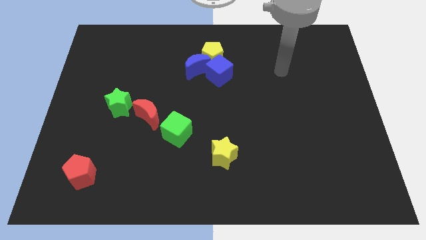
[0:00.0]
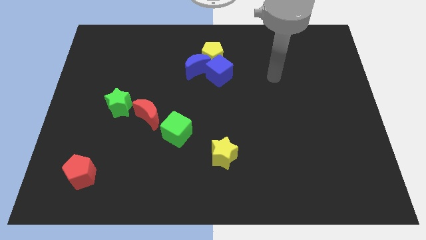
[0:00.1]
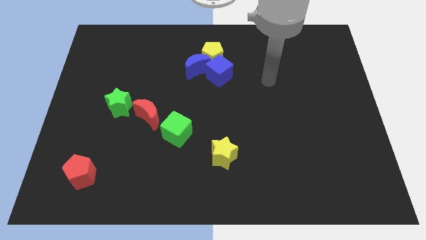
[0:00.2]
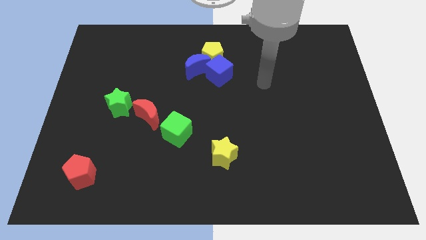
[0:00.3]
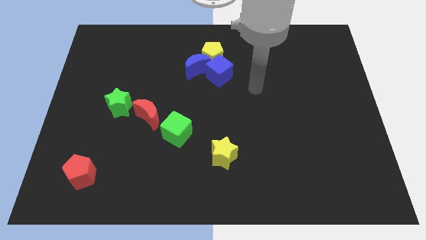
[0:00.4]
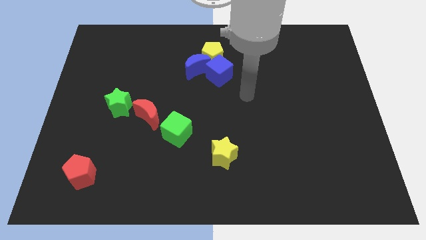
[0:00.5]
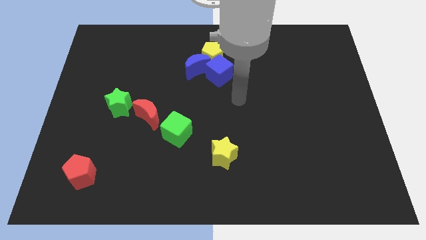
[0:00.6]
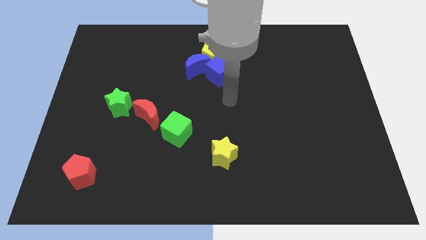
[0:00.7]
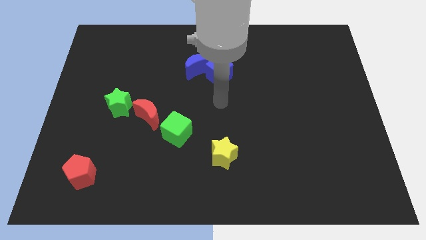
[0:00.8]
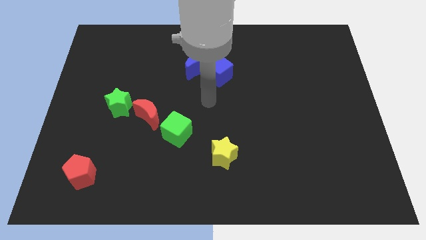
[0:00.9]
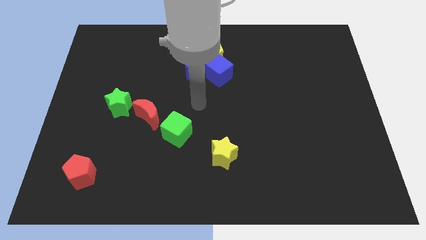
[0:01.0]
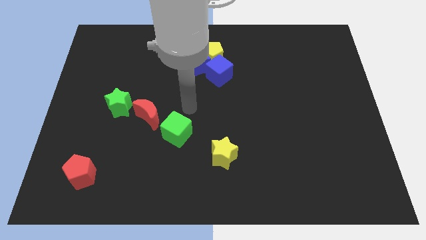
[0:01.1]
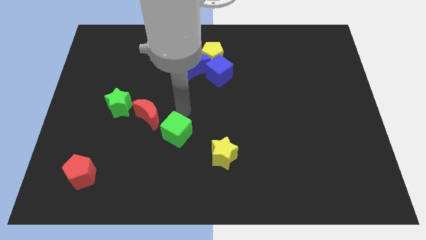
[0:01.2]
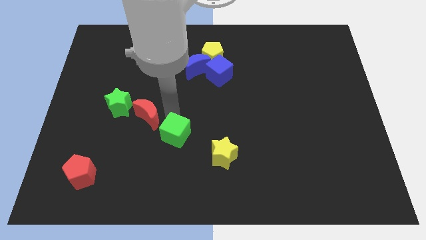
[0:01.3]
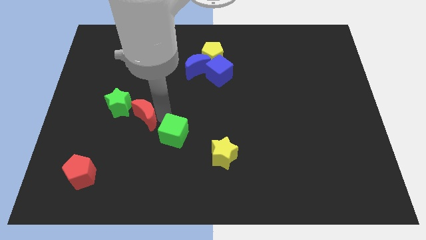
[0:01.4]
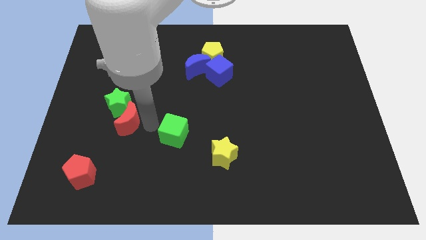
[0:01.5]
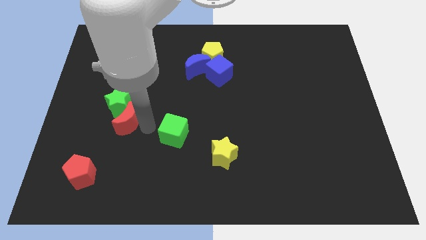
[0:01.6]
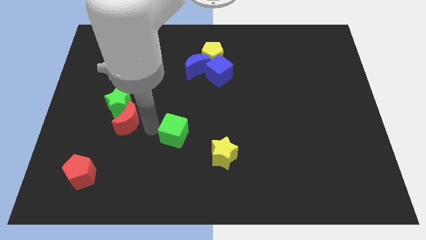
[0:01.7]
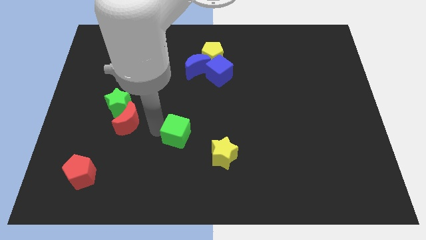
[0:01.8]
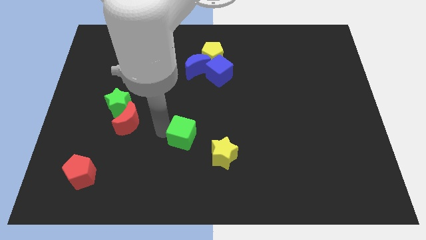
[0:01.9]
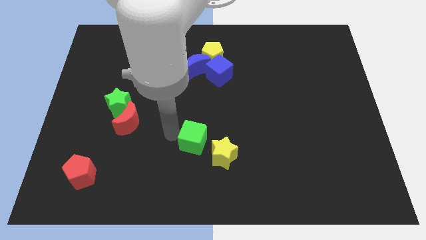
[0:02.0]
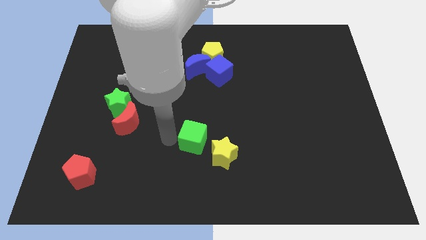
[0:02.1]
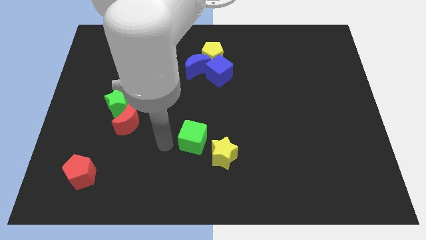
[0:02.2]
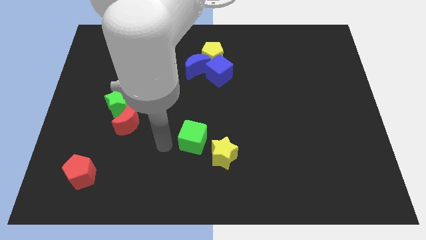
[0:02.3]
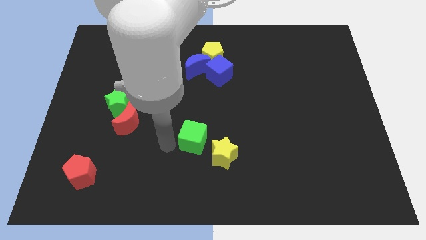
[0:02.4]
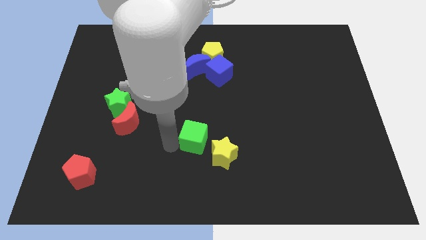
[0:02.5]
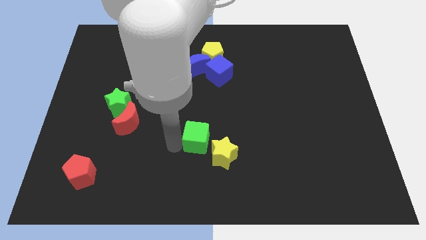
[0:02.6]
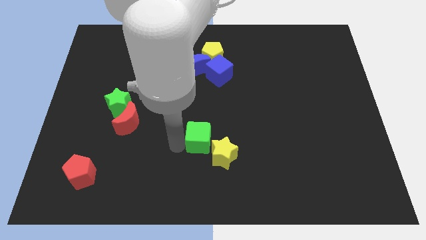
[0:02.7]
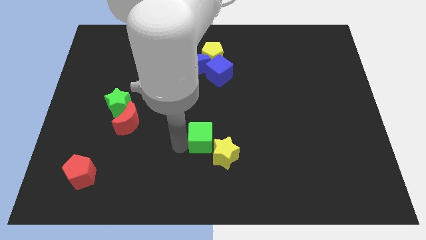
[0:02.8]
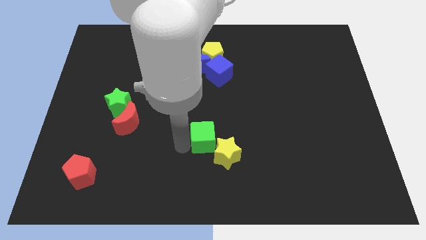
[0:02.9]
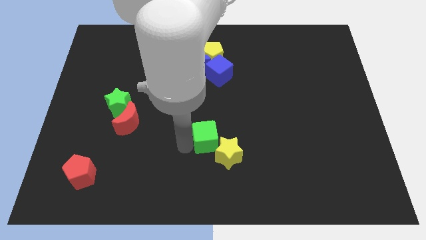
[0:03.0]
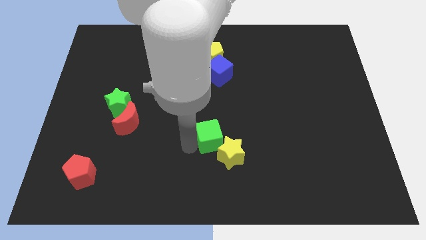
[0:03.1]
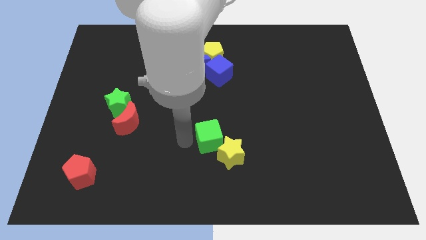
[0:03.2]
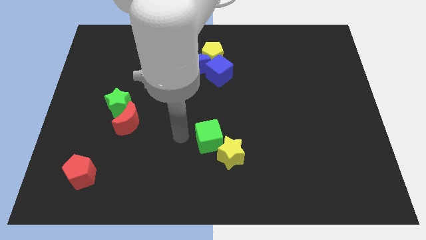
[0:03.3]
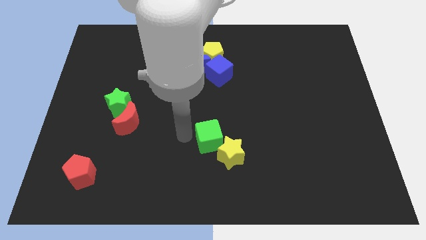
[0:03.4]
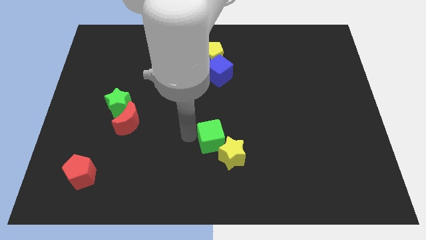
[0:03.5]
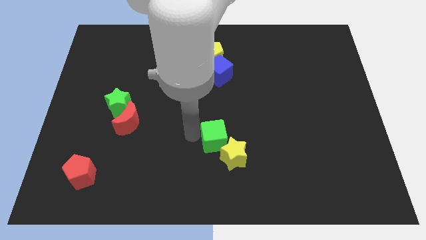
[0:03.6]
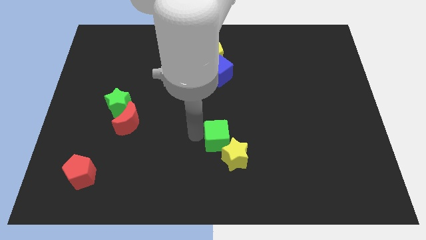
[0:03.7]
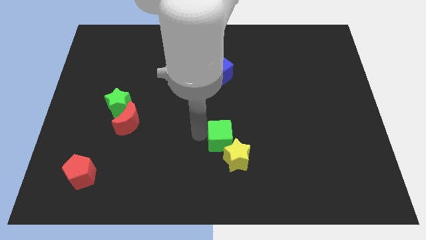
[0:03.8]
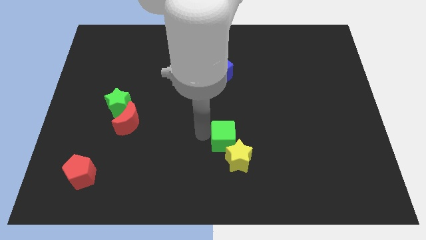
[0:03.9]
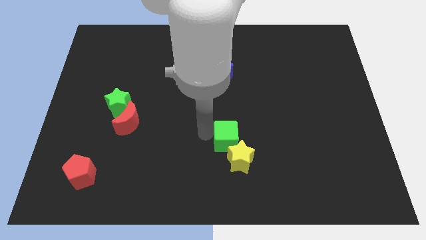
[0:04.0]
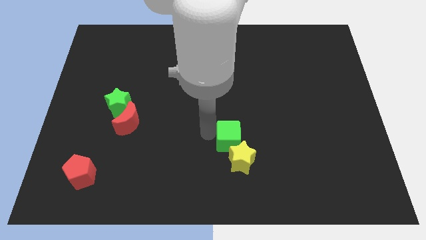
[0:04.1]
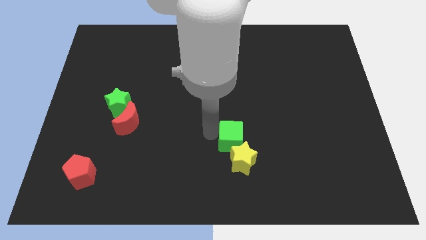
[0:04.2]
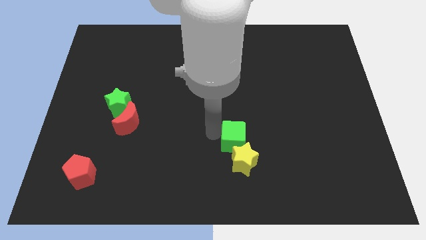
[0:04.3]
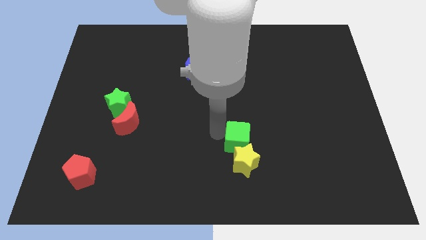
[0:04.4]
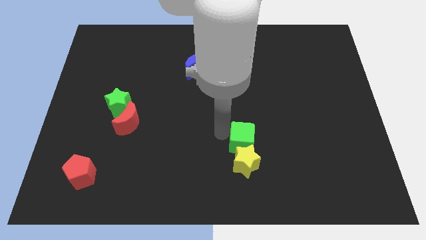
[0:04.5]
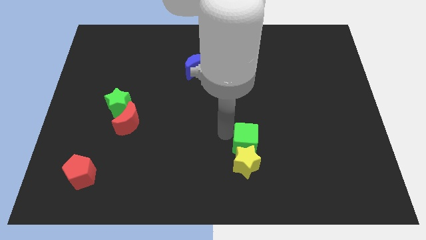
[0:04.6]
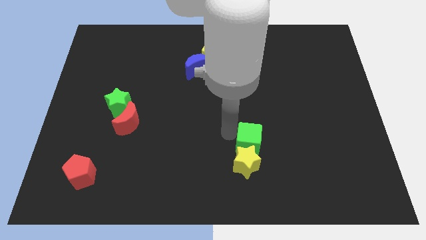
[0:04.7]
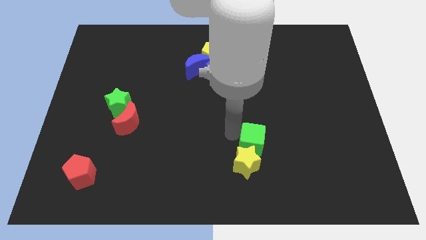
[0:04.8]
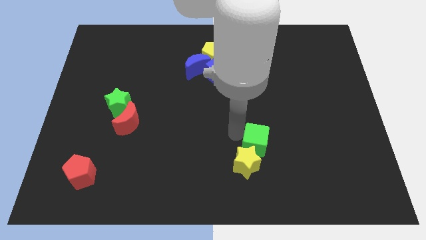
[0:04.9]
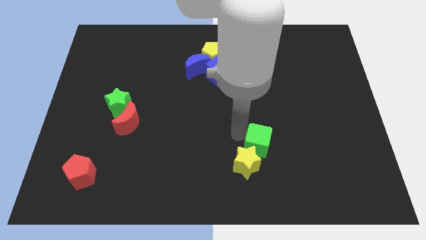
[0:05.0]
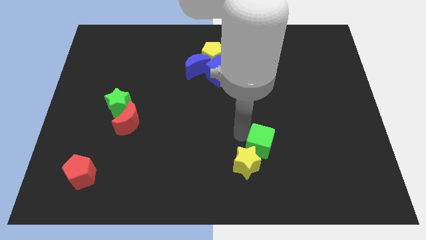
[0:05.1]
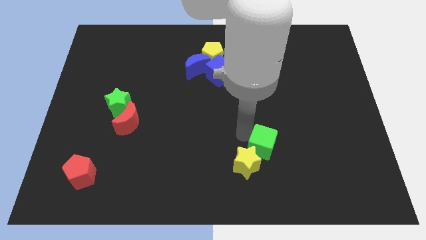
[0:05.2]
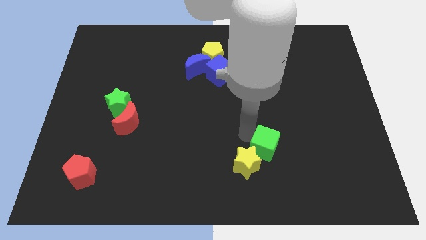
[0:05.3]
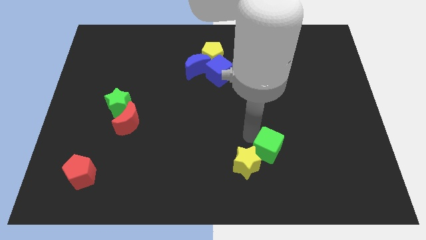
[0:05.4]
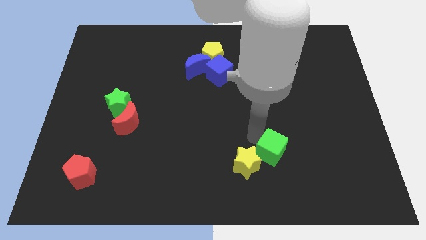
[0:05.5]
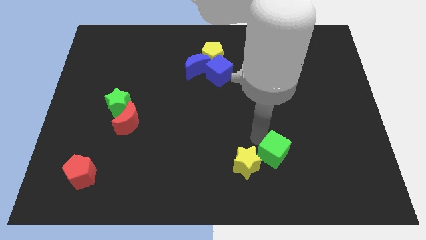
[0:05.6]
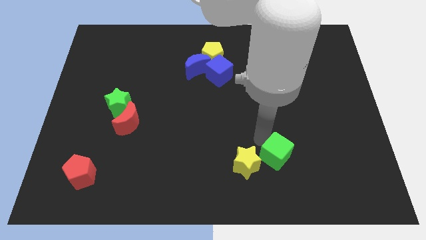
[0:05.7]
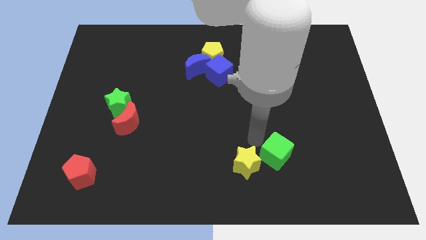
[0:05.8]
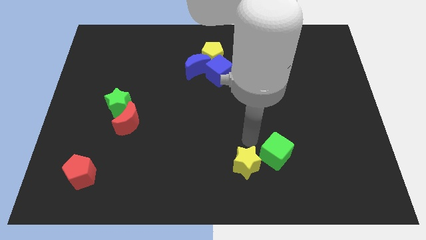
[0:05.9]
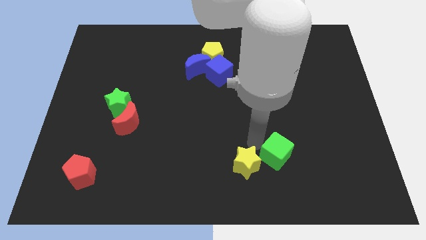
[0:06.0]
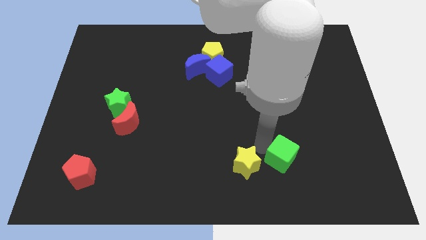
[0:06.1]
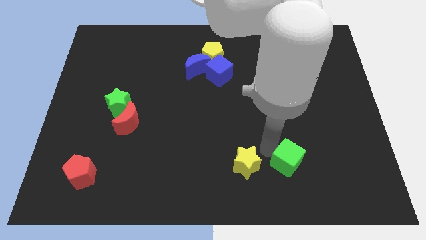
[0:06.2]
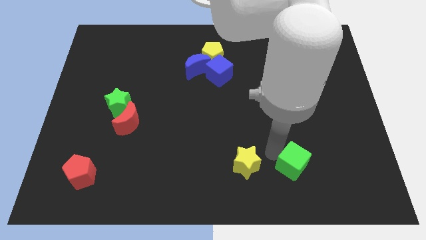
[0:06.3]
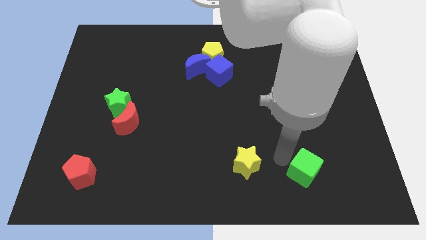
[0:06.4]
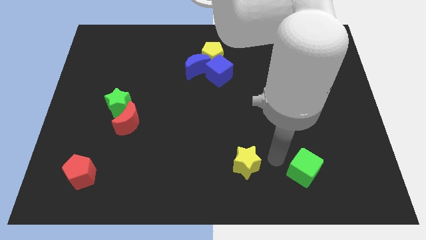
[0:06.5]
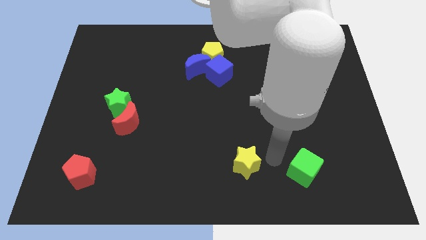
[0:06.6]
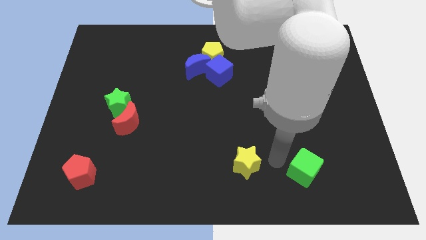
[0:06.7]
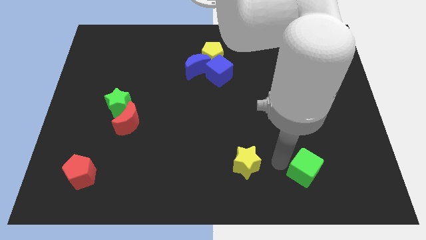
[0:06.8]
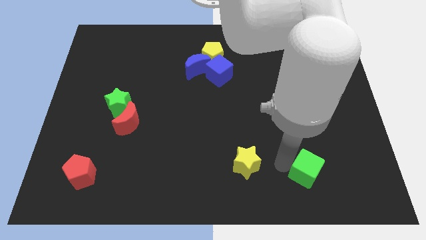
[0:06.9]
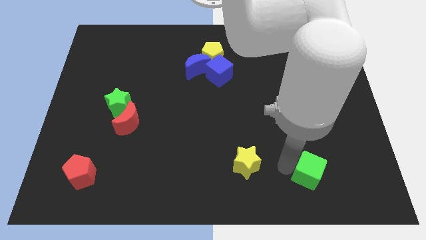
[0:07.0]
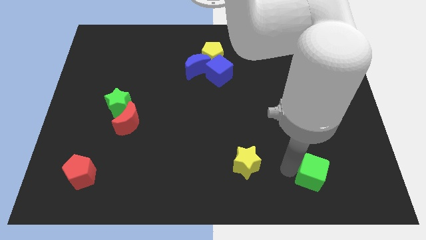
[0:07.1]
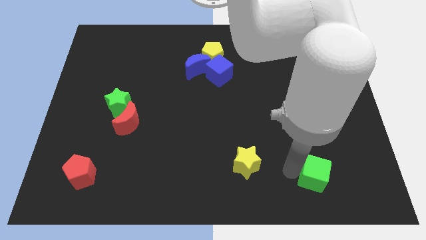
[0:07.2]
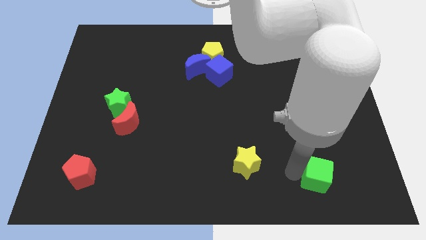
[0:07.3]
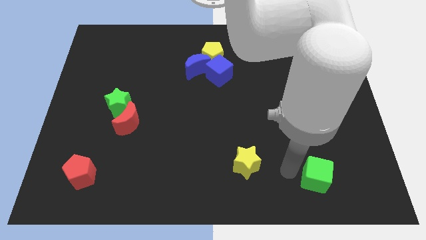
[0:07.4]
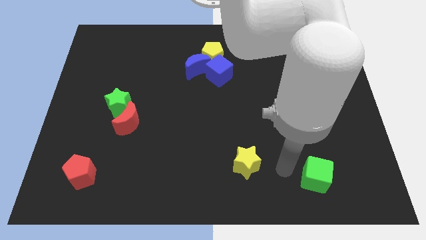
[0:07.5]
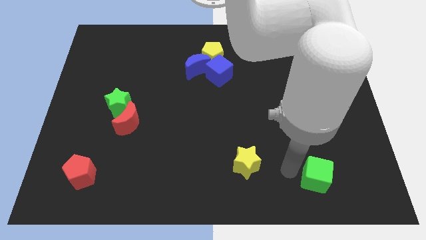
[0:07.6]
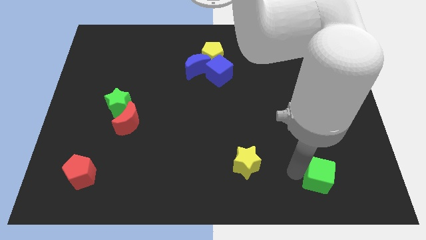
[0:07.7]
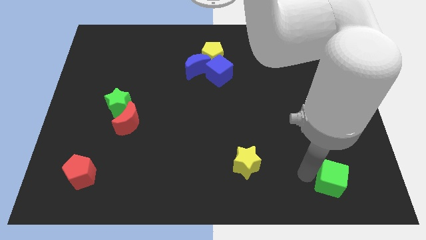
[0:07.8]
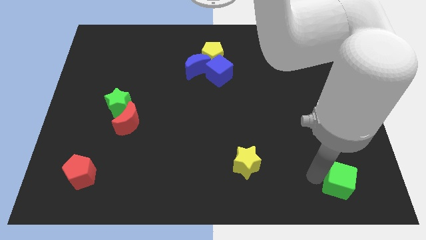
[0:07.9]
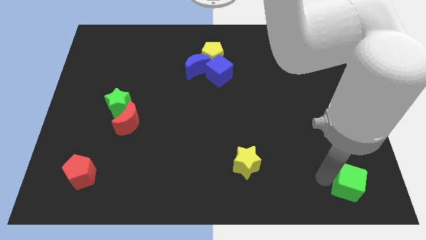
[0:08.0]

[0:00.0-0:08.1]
put the green cube to the bottom right

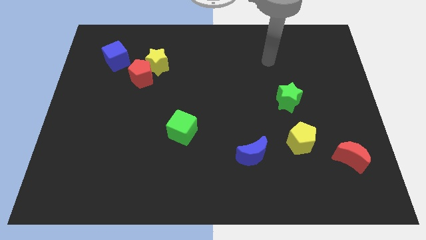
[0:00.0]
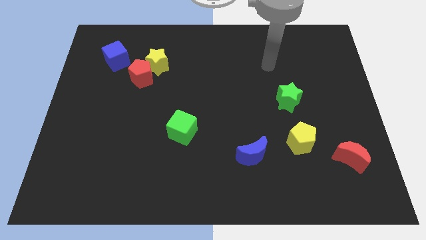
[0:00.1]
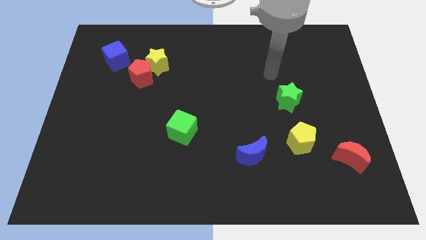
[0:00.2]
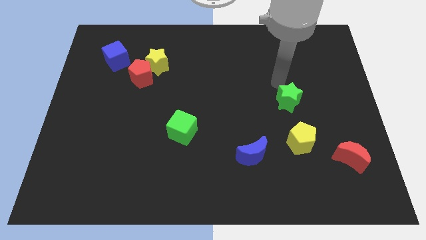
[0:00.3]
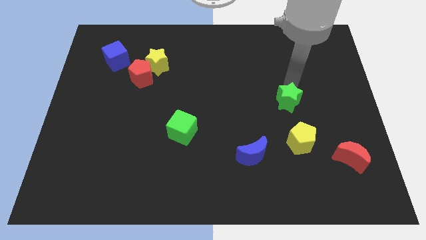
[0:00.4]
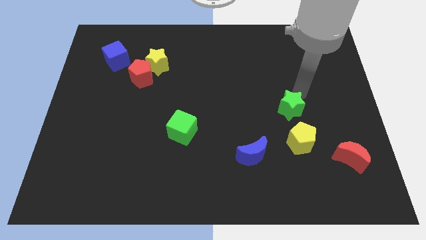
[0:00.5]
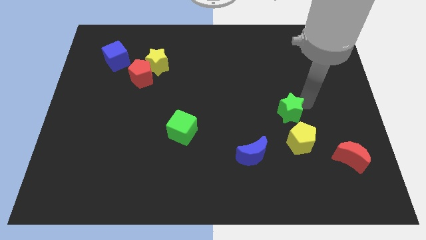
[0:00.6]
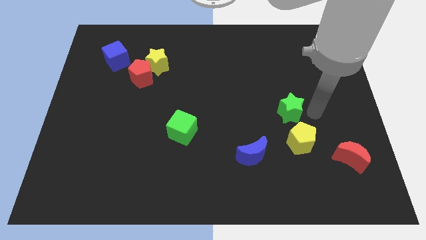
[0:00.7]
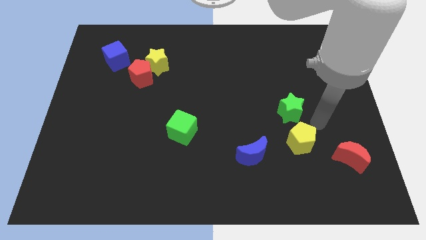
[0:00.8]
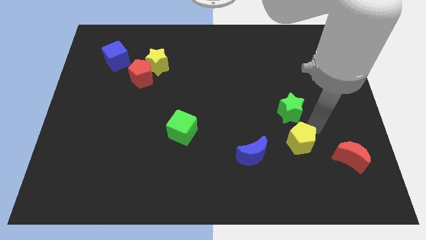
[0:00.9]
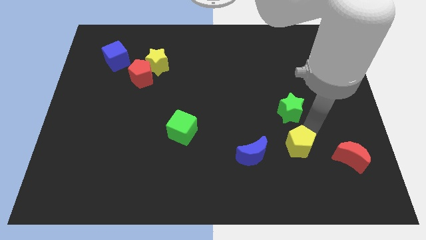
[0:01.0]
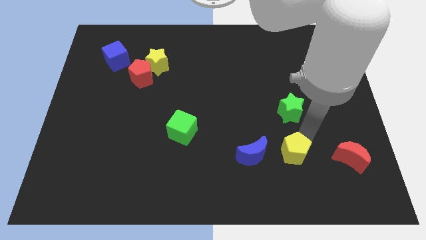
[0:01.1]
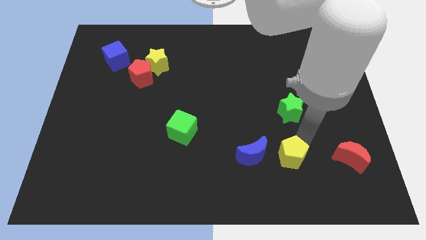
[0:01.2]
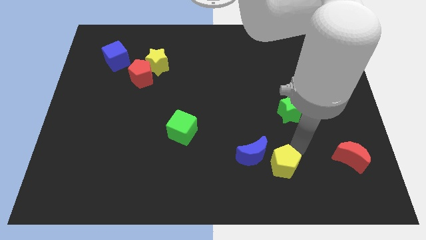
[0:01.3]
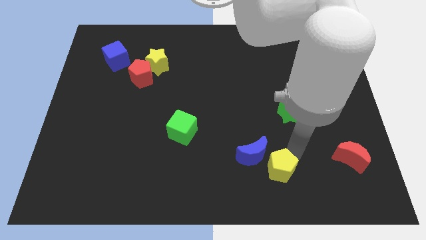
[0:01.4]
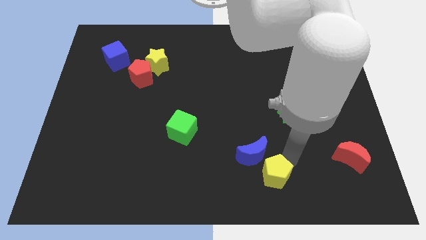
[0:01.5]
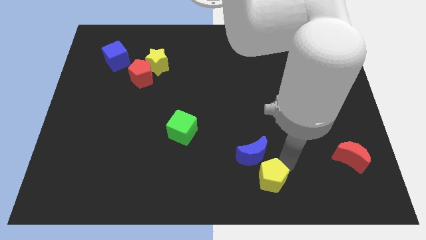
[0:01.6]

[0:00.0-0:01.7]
slide the yellow pentagon to the bottom
